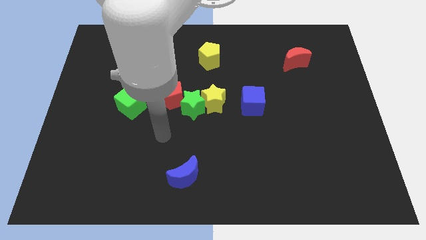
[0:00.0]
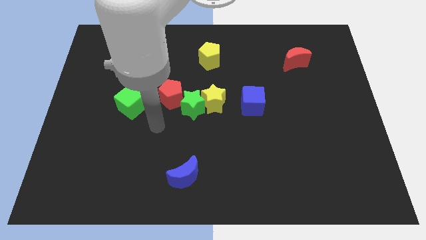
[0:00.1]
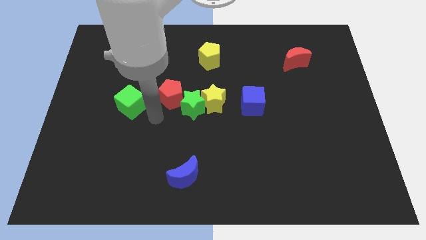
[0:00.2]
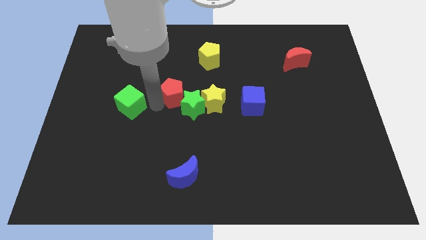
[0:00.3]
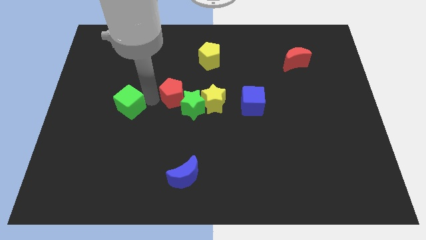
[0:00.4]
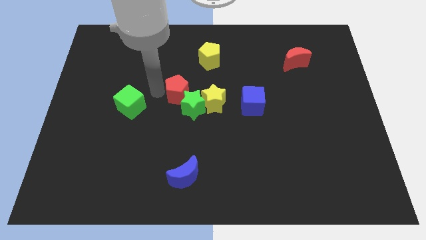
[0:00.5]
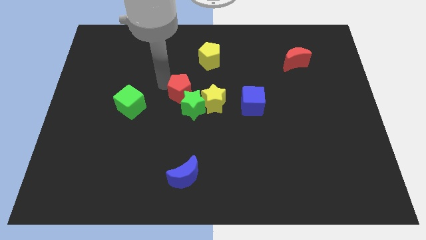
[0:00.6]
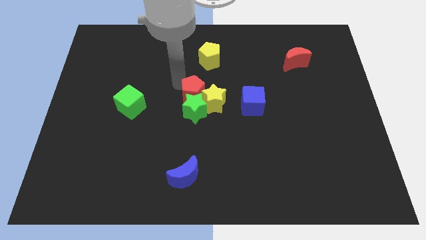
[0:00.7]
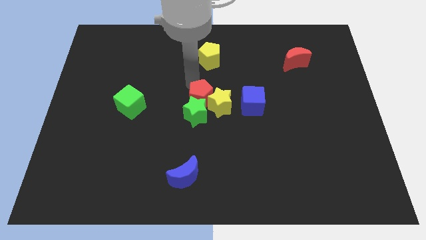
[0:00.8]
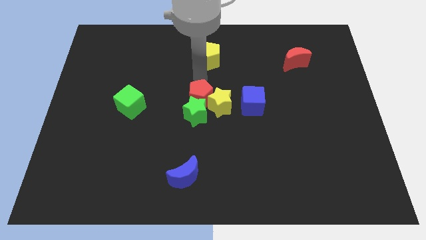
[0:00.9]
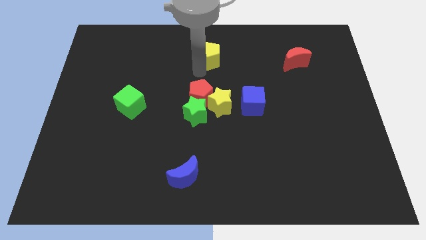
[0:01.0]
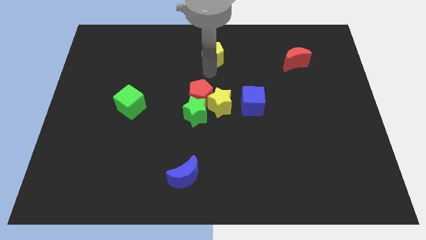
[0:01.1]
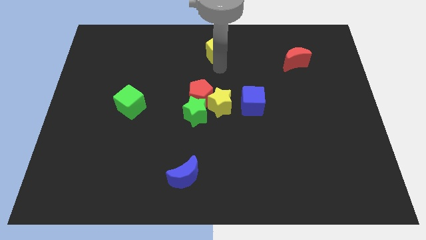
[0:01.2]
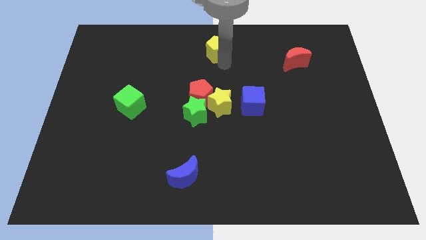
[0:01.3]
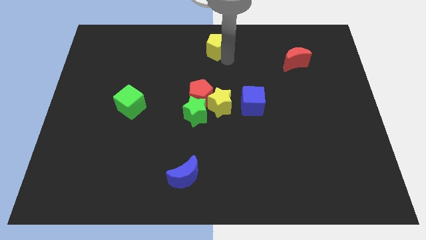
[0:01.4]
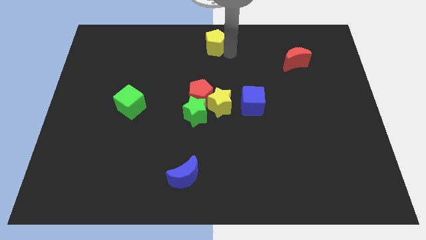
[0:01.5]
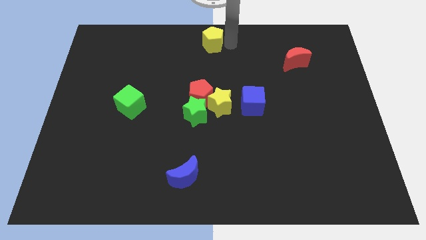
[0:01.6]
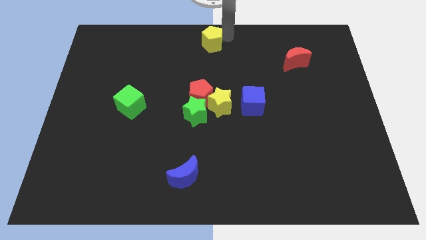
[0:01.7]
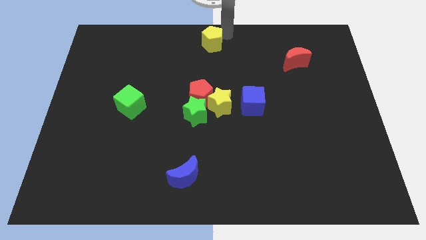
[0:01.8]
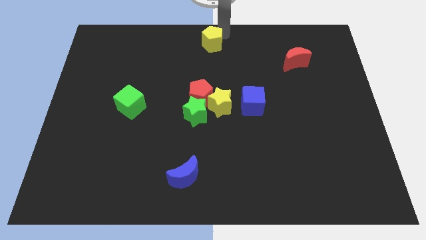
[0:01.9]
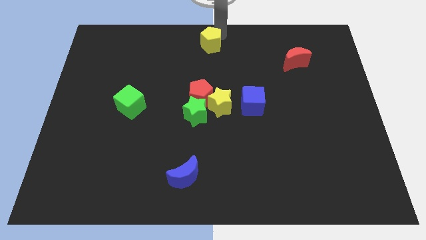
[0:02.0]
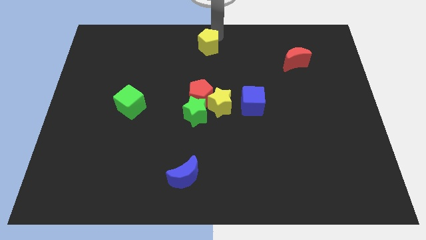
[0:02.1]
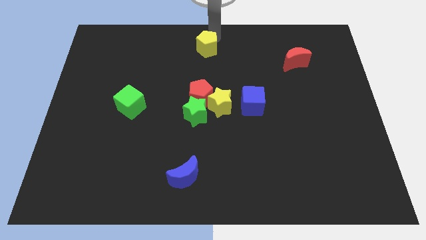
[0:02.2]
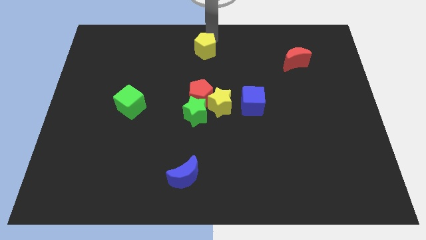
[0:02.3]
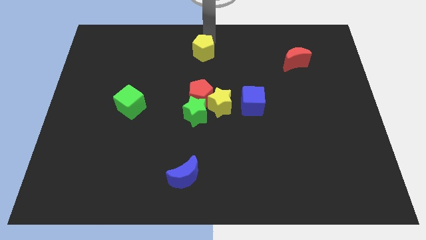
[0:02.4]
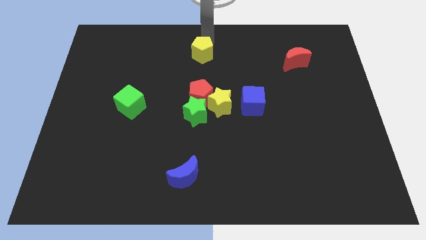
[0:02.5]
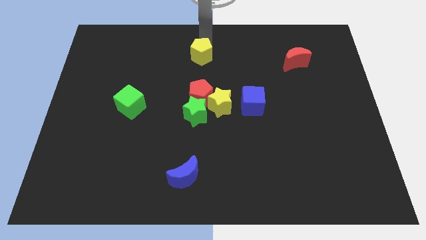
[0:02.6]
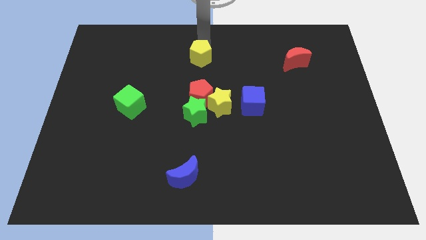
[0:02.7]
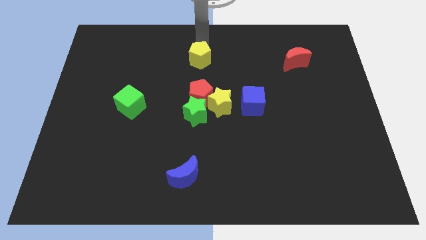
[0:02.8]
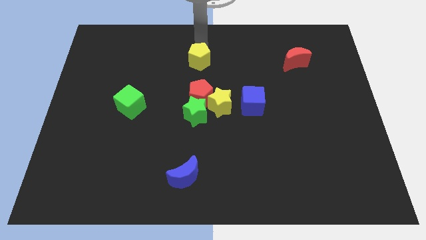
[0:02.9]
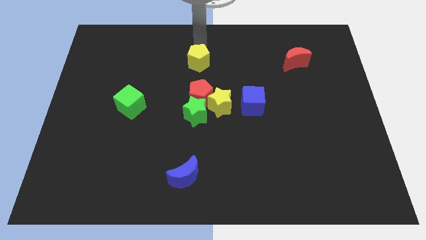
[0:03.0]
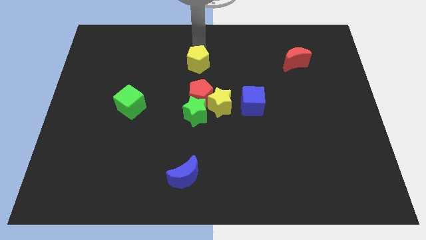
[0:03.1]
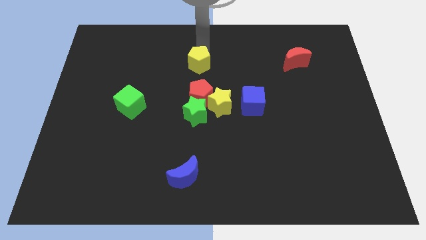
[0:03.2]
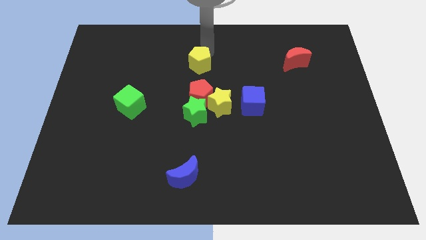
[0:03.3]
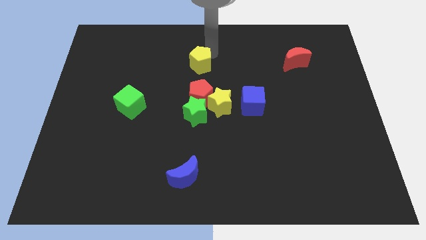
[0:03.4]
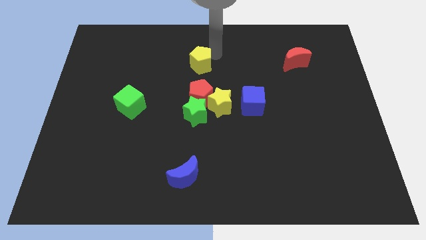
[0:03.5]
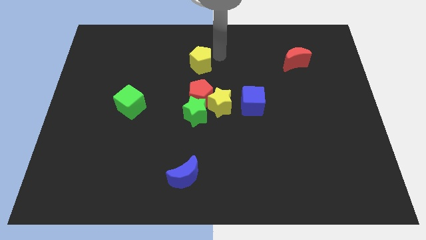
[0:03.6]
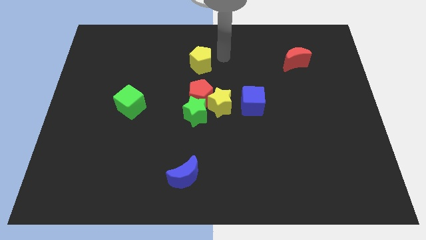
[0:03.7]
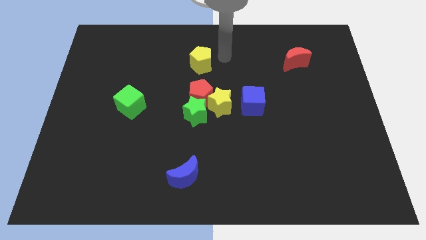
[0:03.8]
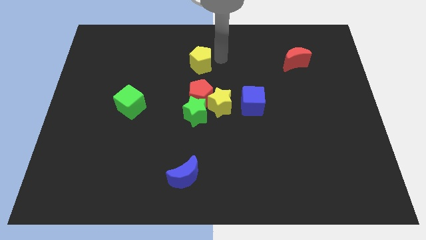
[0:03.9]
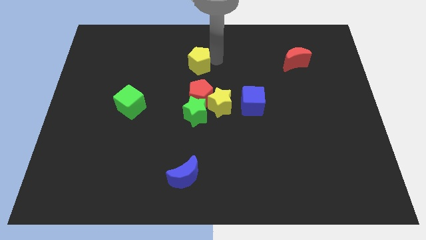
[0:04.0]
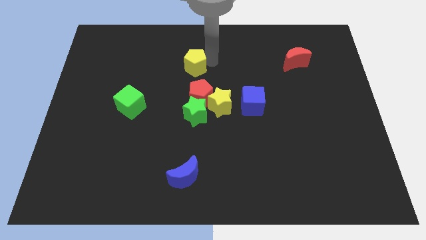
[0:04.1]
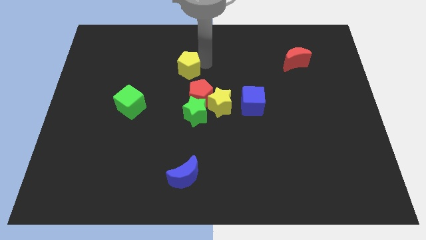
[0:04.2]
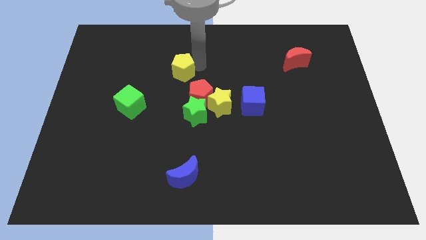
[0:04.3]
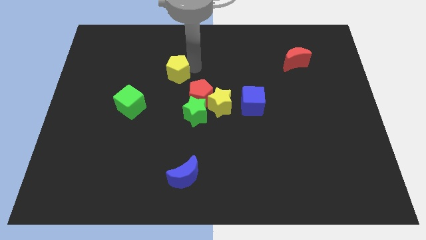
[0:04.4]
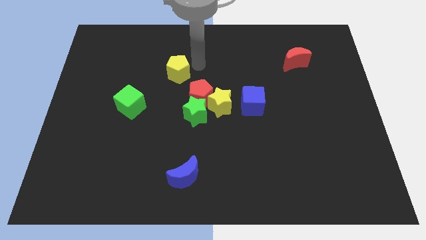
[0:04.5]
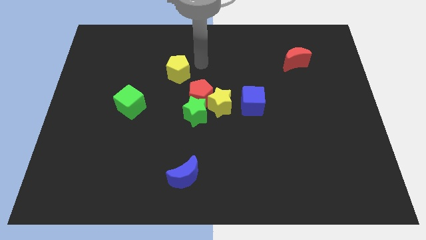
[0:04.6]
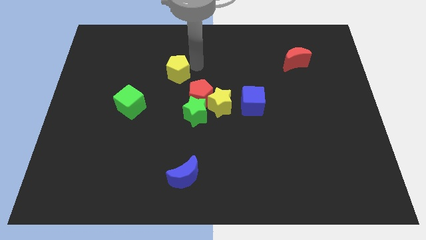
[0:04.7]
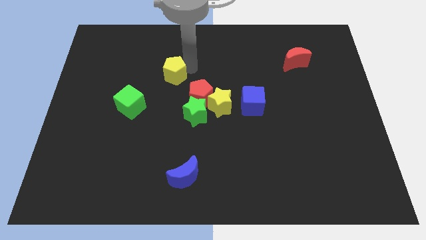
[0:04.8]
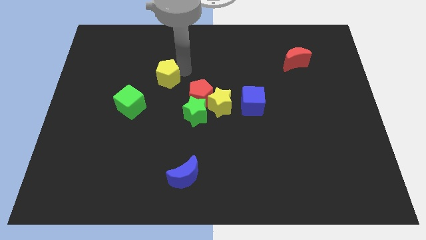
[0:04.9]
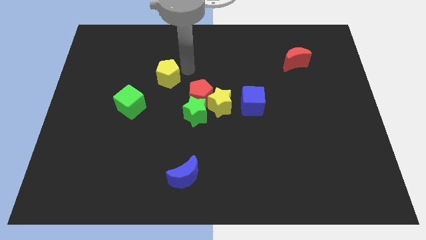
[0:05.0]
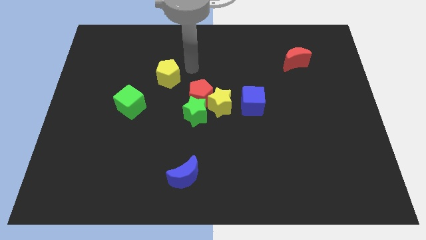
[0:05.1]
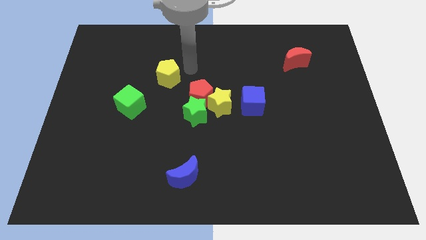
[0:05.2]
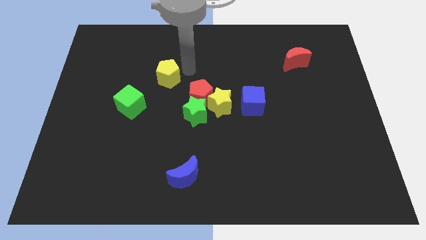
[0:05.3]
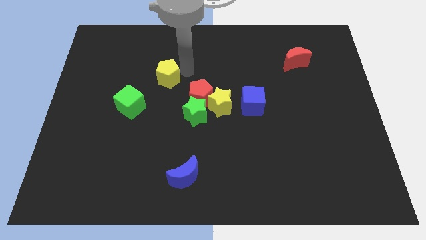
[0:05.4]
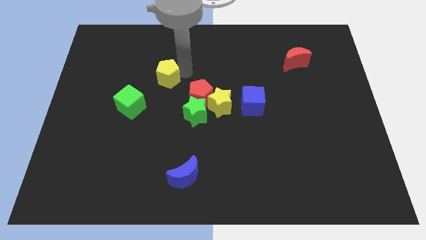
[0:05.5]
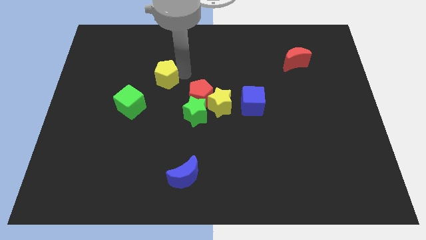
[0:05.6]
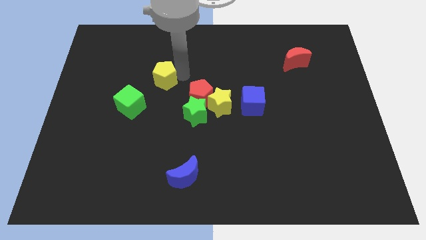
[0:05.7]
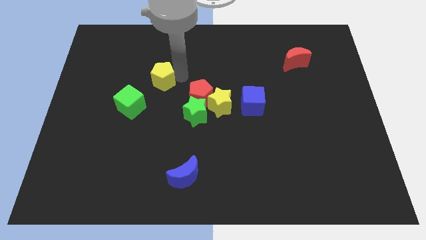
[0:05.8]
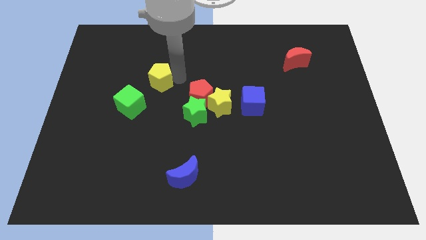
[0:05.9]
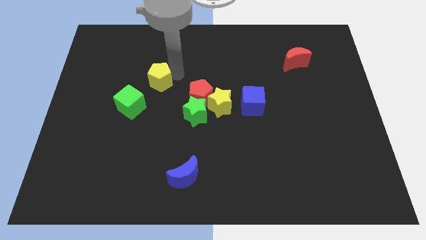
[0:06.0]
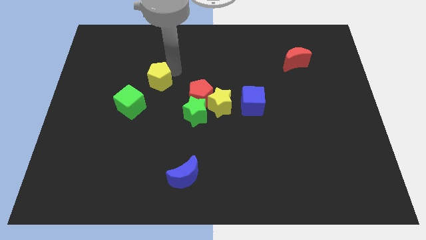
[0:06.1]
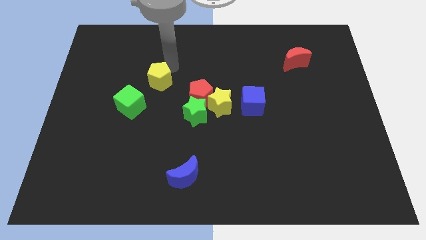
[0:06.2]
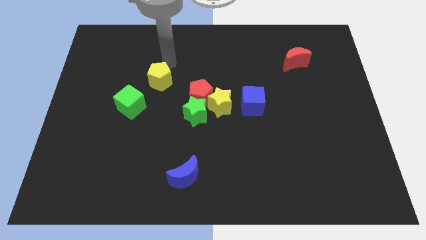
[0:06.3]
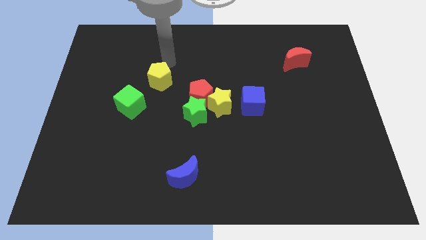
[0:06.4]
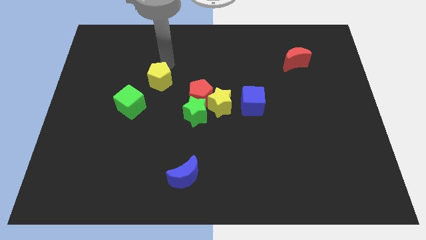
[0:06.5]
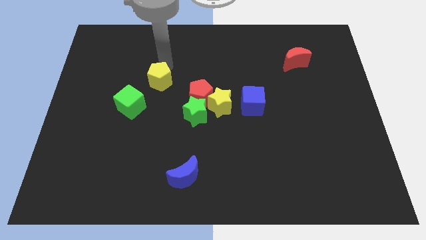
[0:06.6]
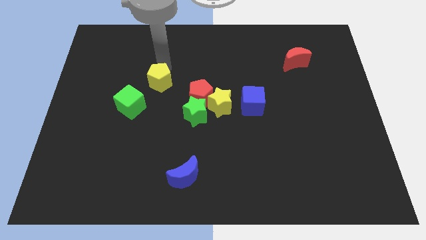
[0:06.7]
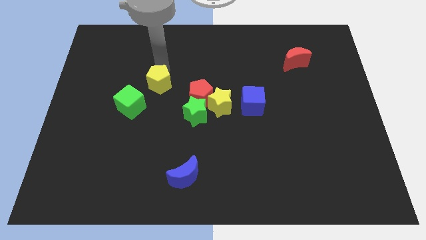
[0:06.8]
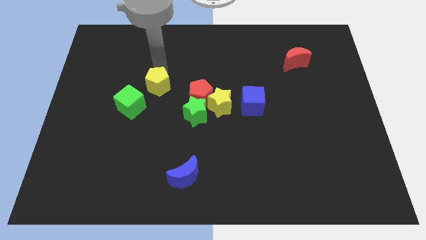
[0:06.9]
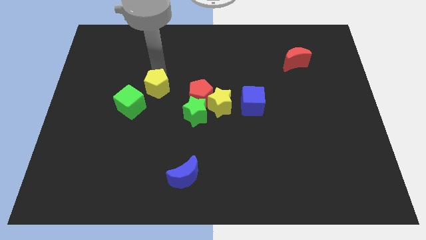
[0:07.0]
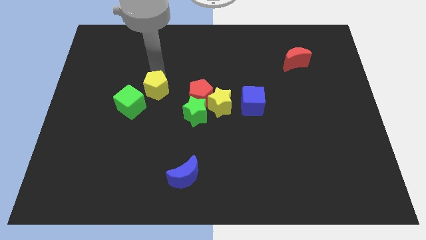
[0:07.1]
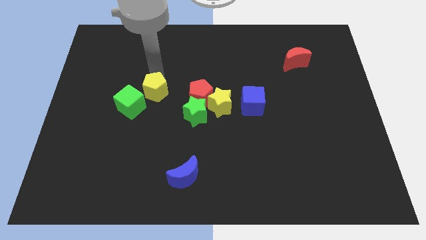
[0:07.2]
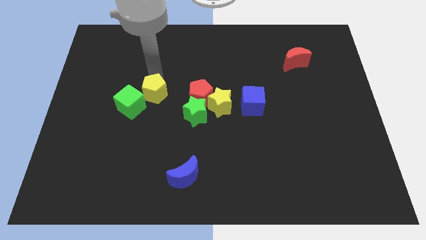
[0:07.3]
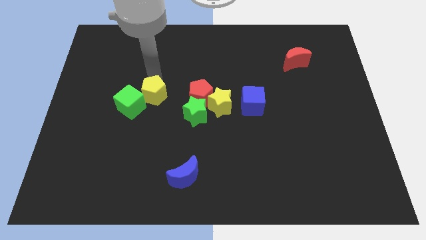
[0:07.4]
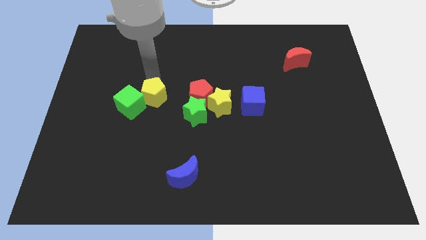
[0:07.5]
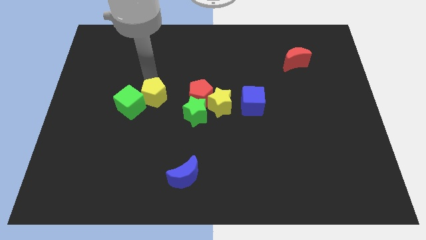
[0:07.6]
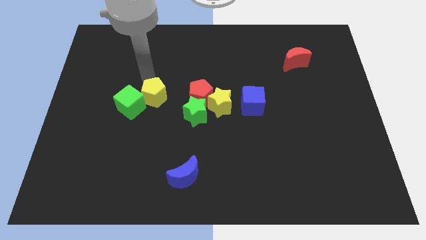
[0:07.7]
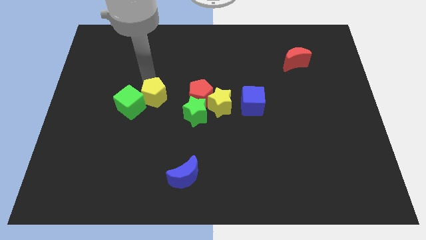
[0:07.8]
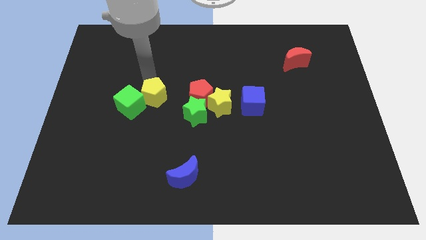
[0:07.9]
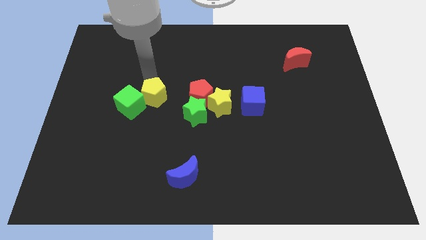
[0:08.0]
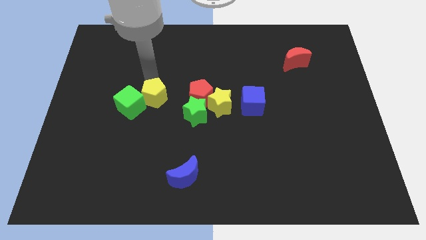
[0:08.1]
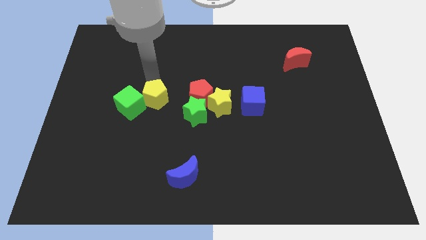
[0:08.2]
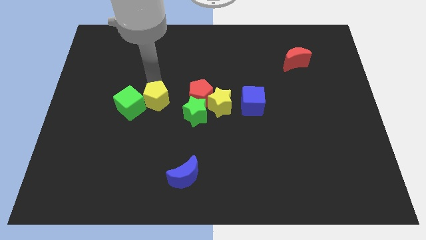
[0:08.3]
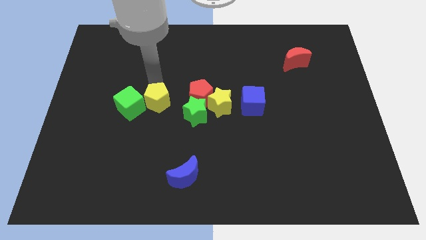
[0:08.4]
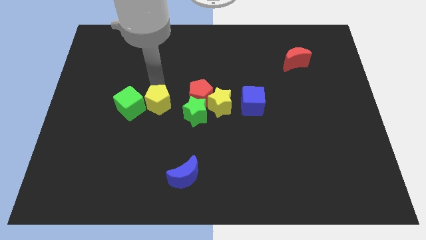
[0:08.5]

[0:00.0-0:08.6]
slide the yellow pentagon somewhat down
